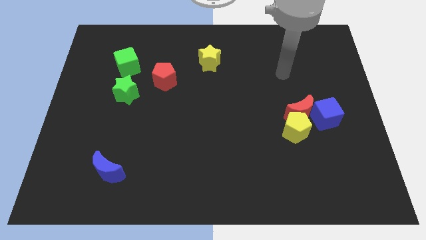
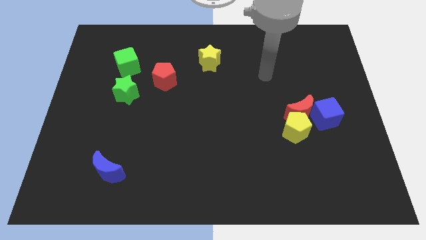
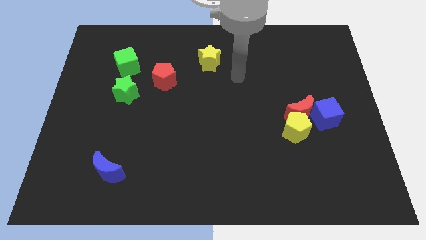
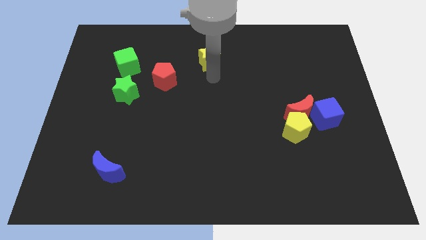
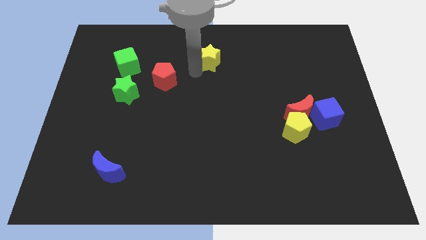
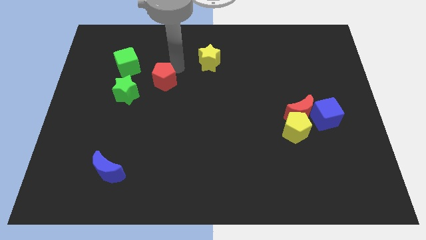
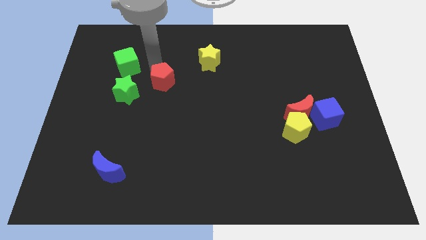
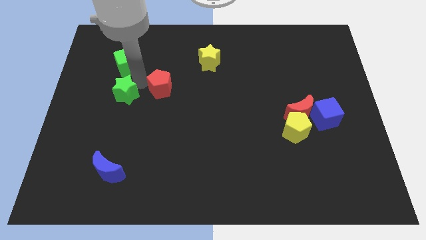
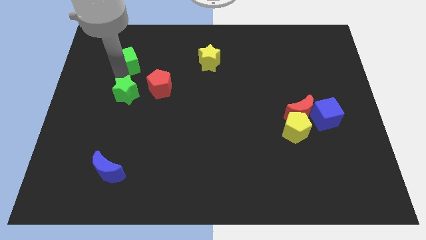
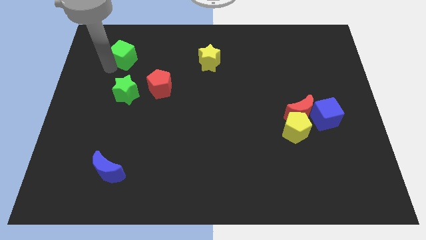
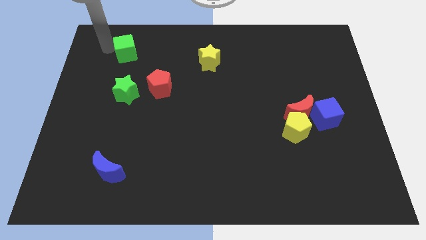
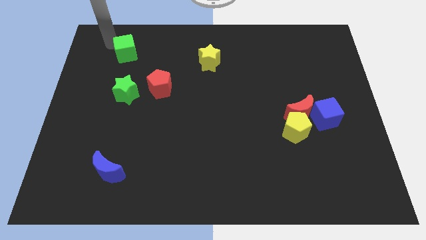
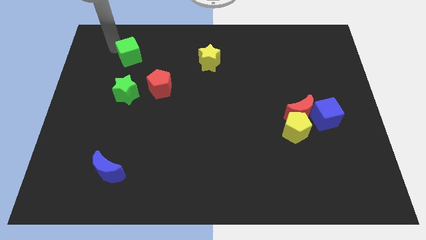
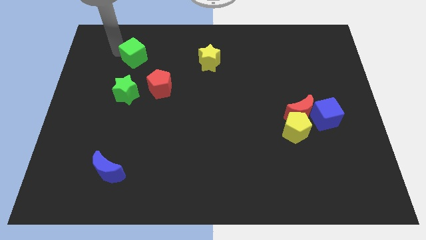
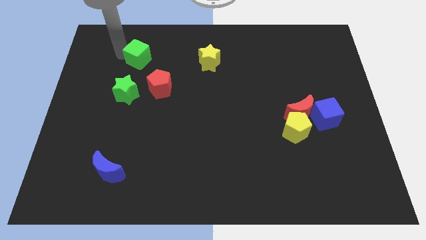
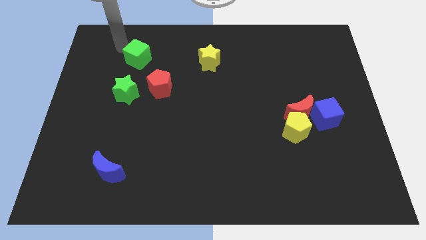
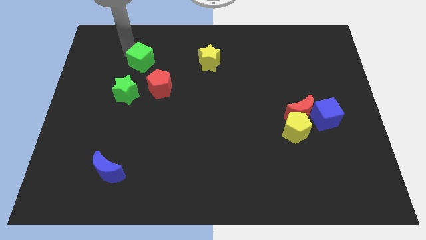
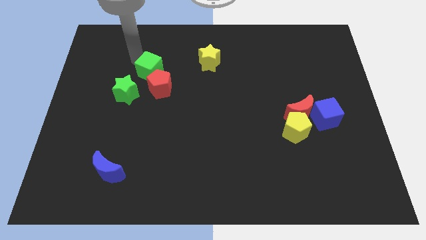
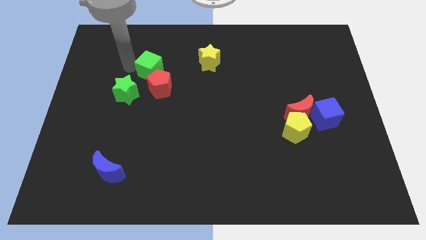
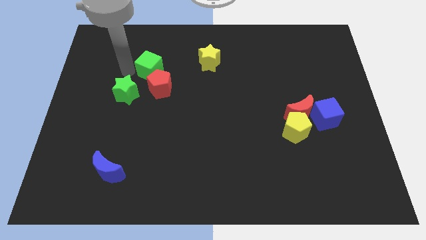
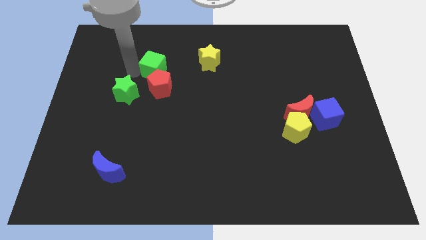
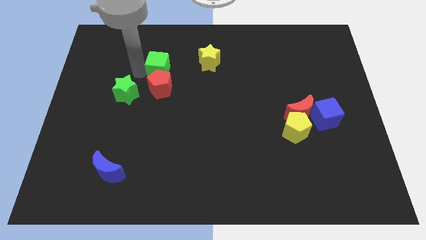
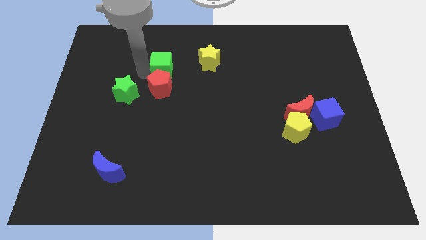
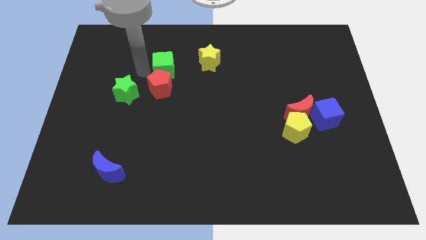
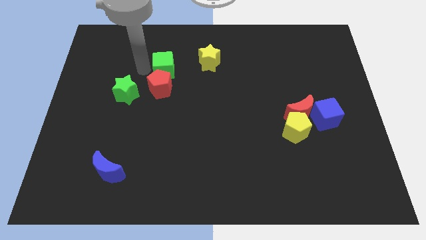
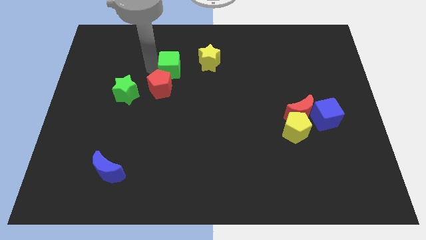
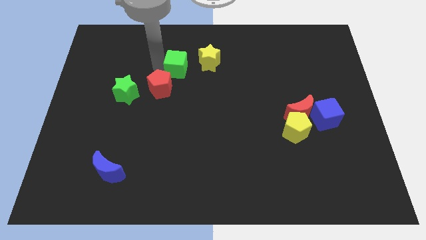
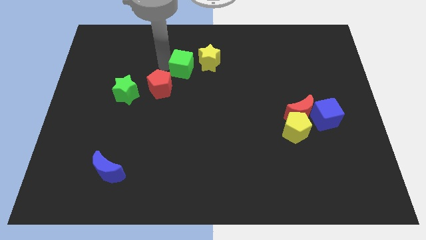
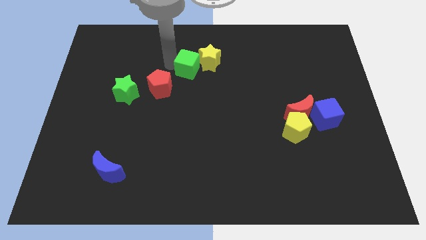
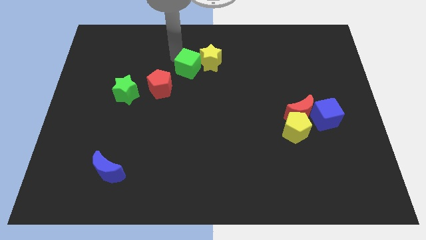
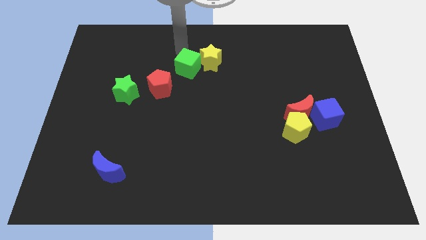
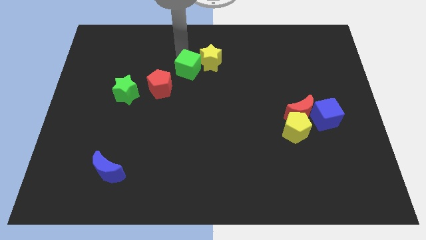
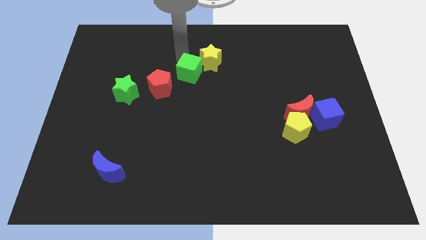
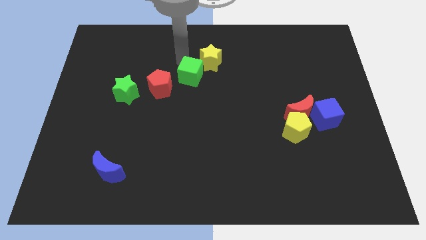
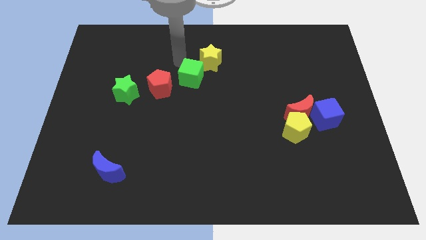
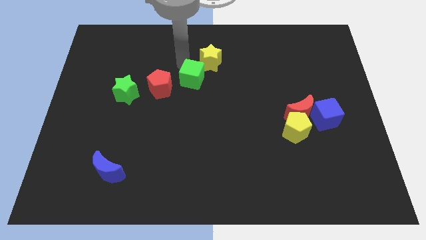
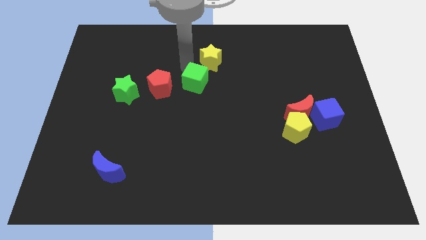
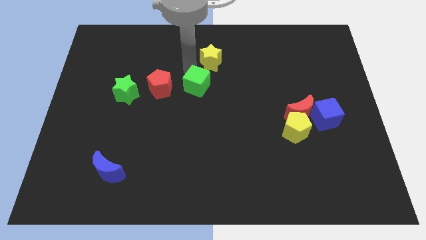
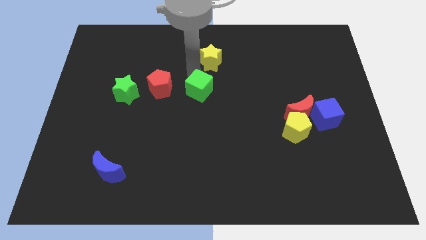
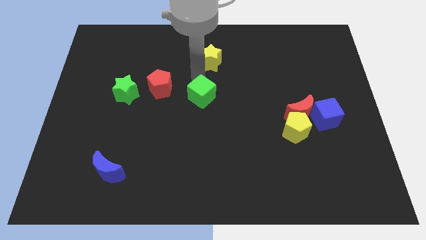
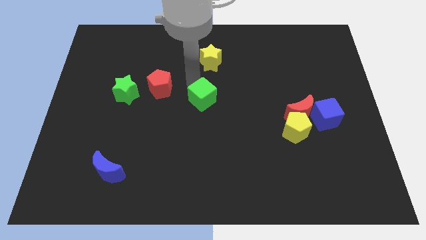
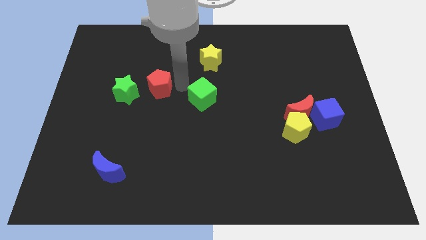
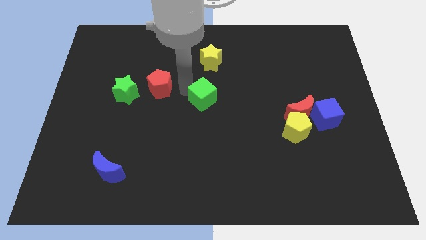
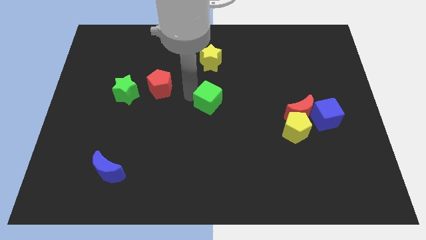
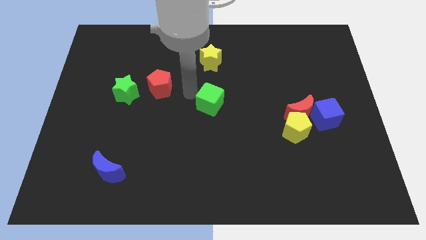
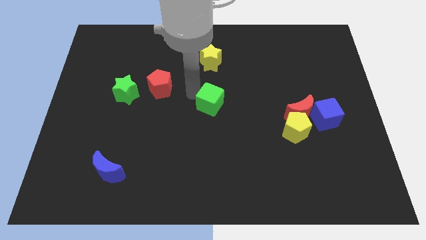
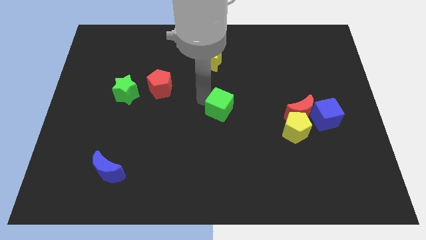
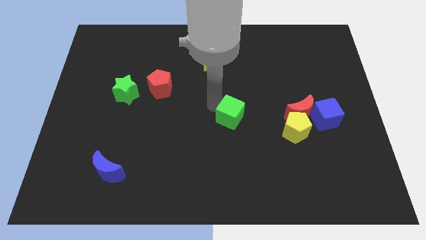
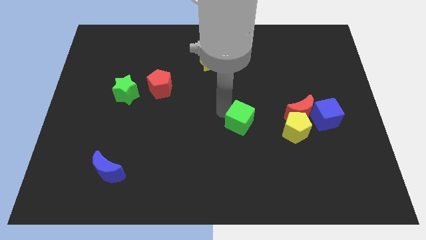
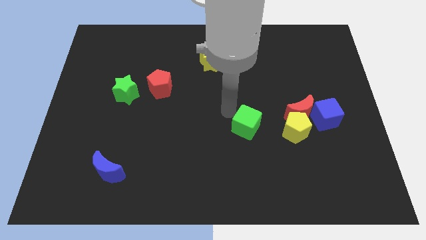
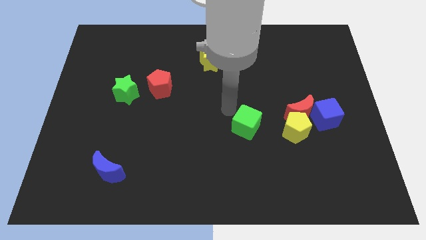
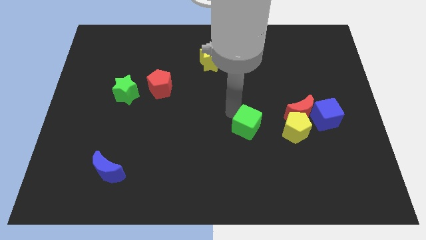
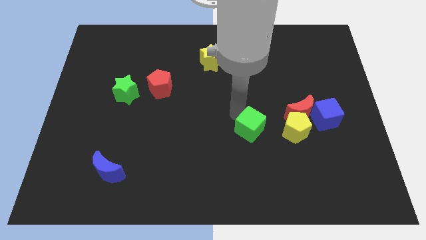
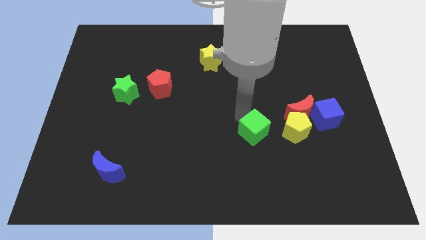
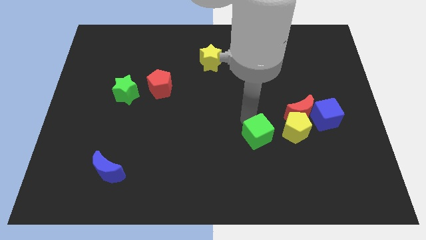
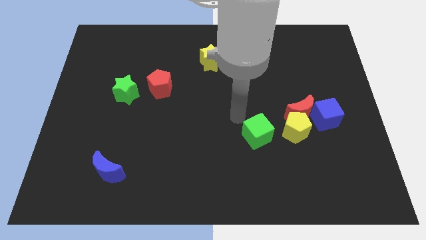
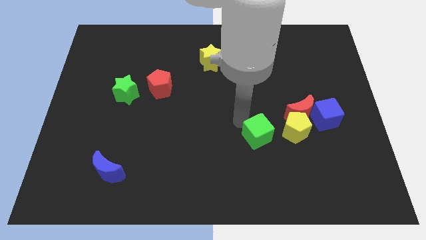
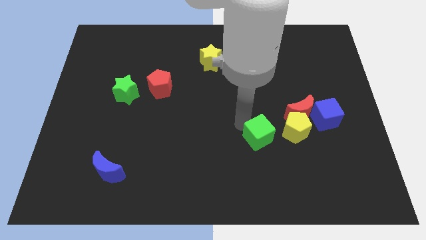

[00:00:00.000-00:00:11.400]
move the green cube to the bottom left side of the yellow pentagon

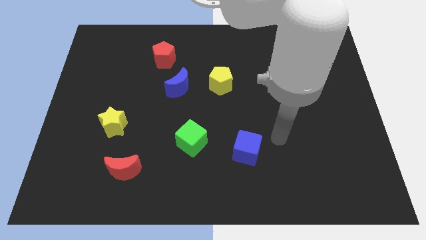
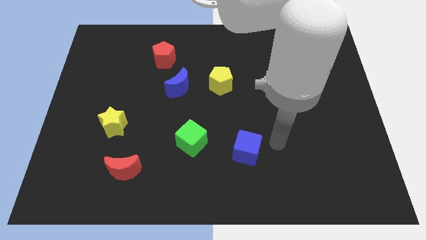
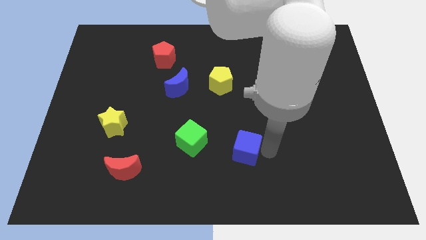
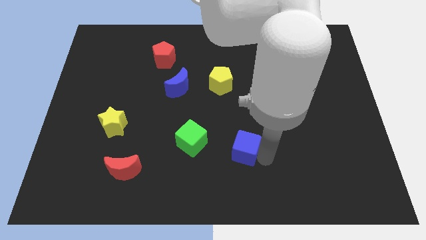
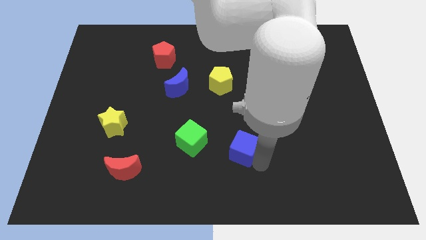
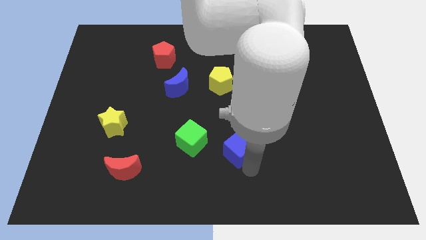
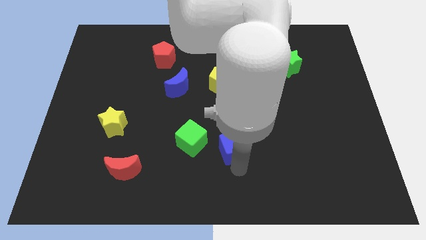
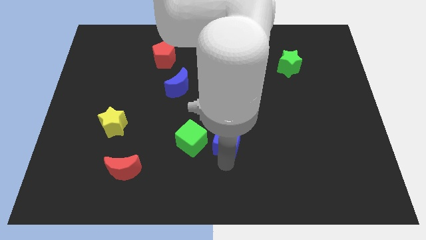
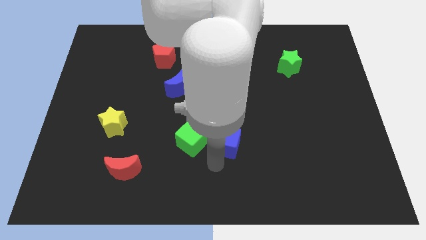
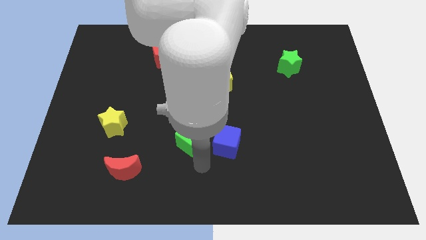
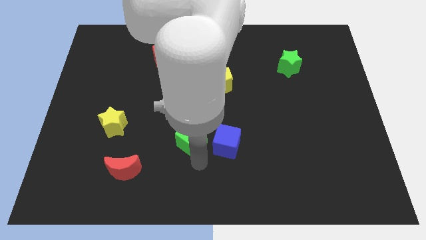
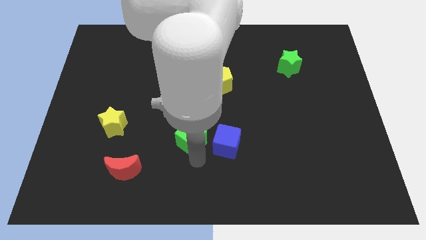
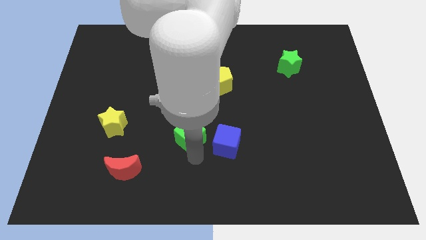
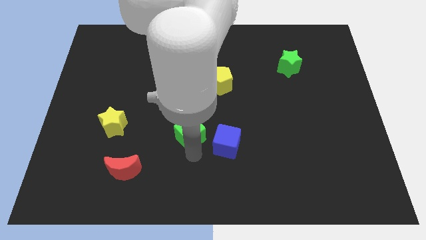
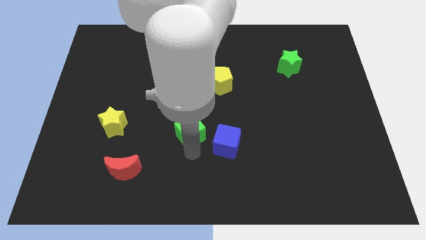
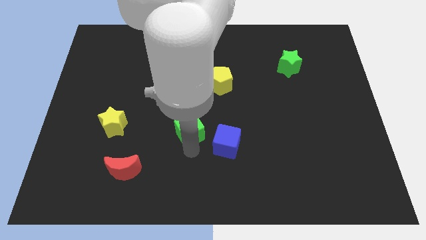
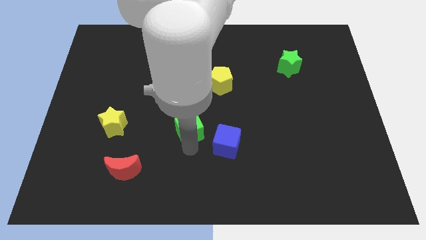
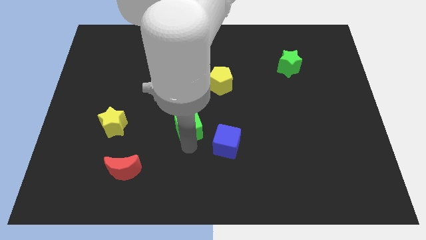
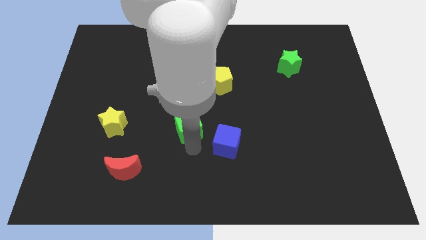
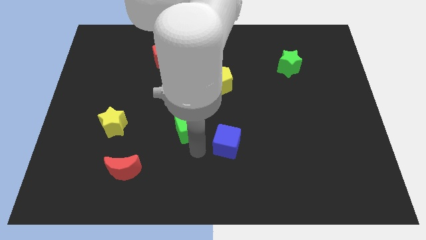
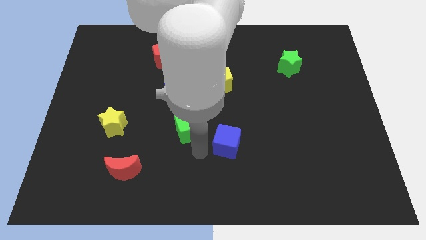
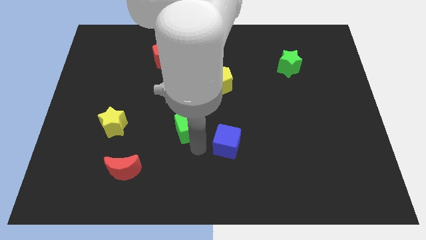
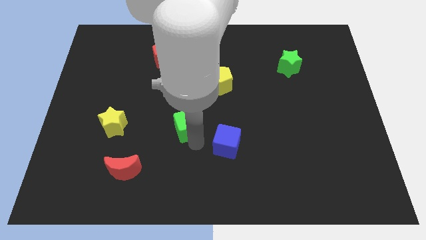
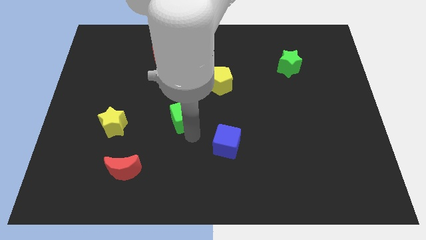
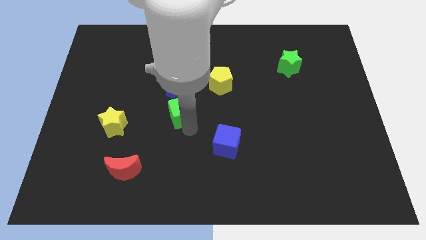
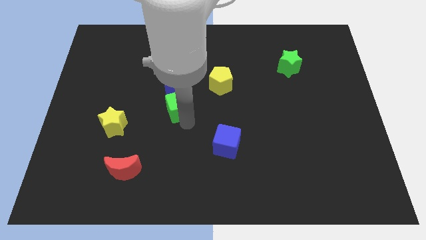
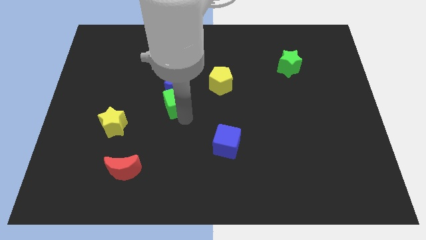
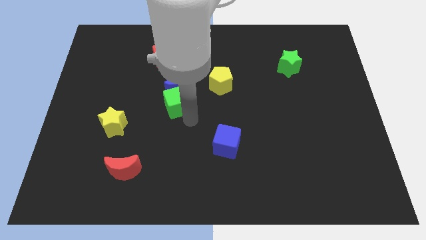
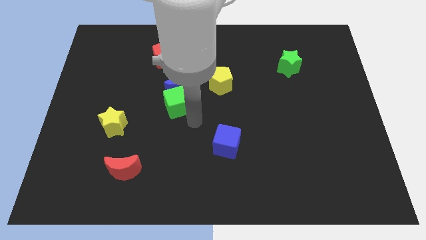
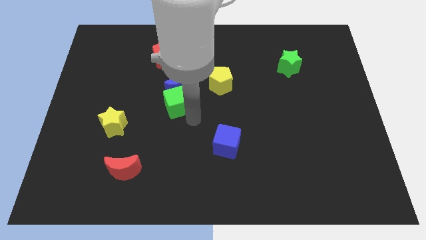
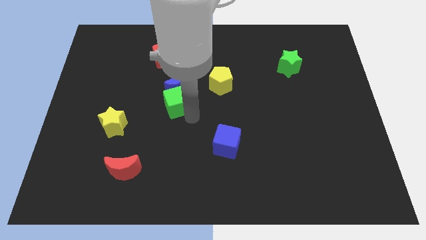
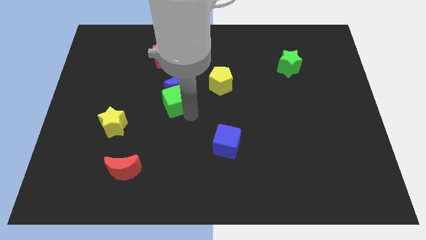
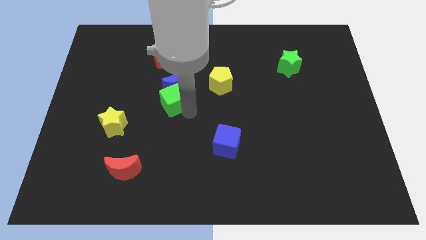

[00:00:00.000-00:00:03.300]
slide the green cube to the bottom of the red pentagon
